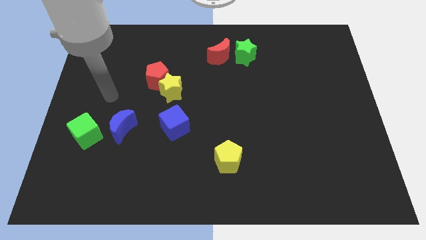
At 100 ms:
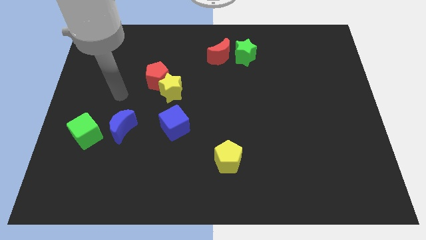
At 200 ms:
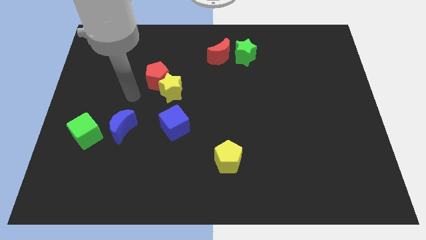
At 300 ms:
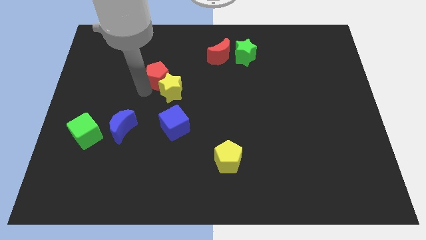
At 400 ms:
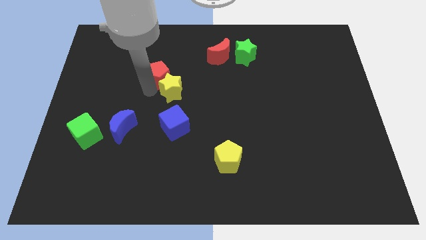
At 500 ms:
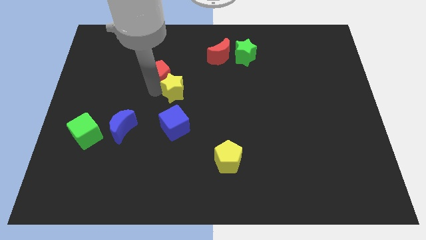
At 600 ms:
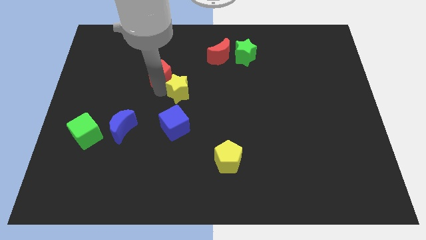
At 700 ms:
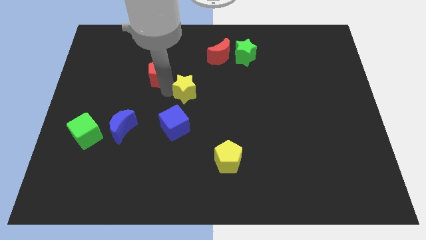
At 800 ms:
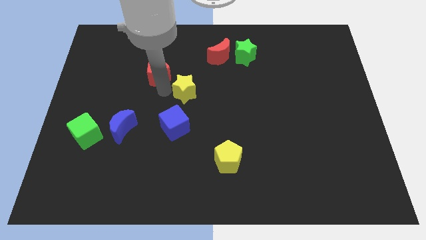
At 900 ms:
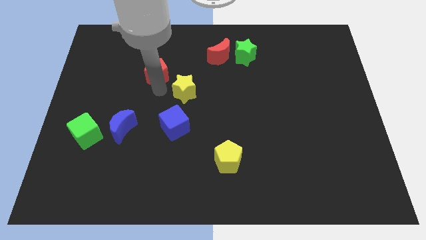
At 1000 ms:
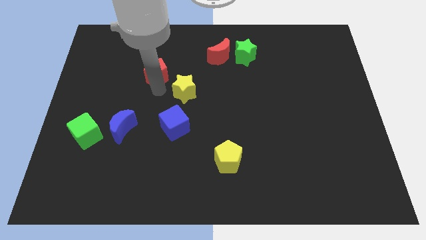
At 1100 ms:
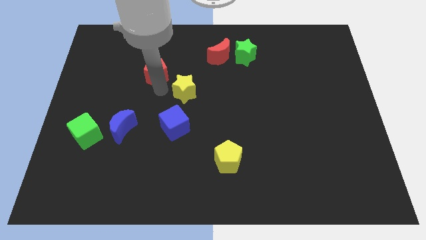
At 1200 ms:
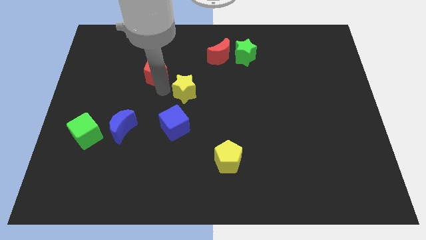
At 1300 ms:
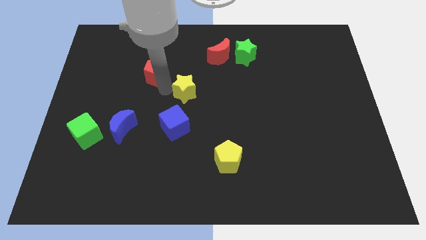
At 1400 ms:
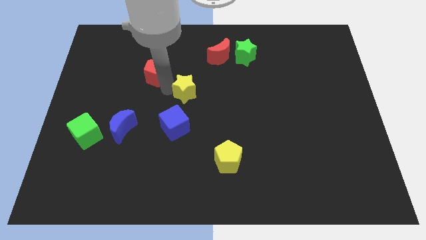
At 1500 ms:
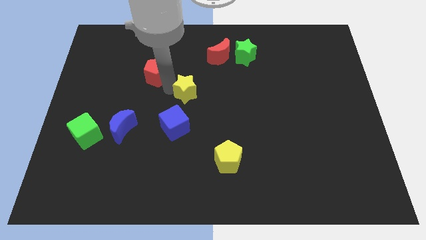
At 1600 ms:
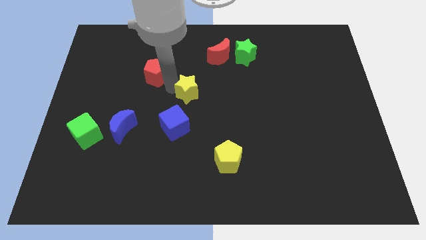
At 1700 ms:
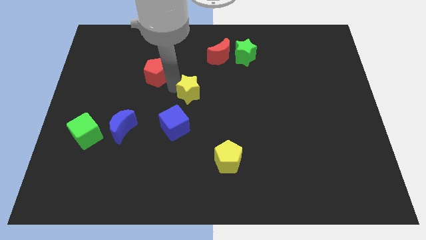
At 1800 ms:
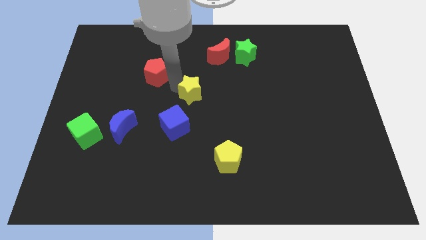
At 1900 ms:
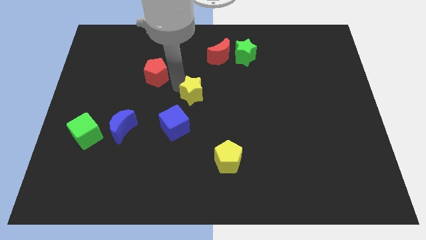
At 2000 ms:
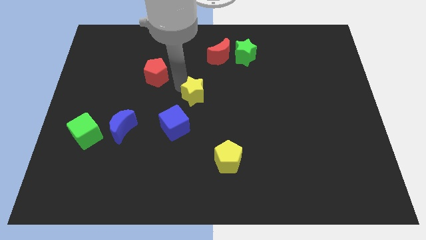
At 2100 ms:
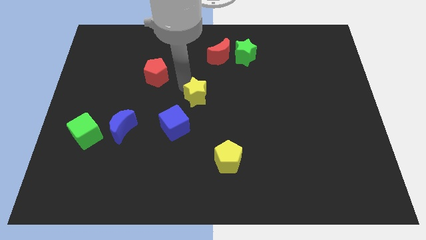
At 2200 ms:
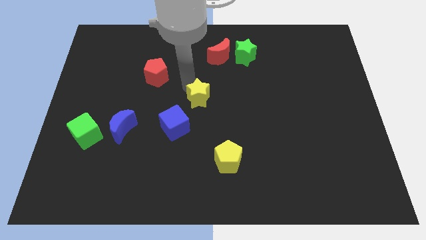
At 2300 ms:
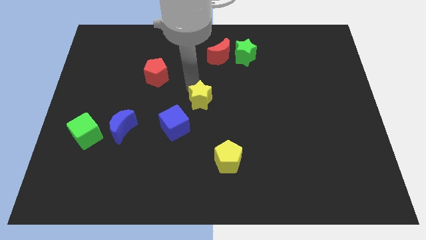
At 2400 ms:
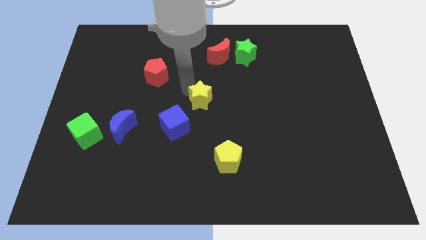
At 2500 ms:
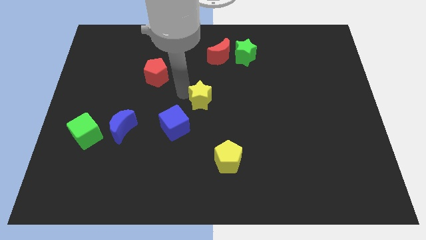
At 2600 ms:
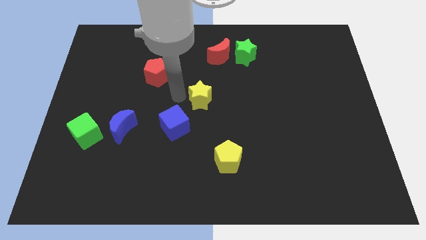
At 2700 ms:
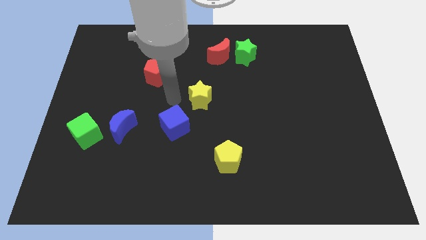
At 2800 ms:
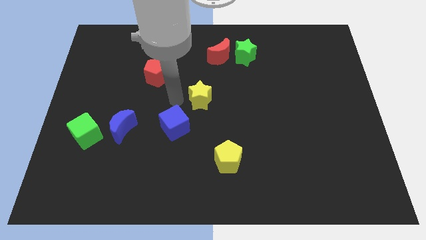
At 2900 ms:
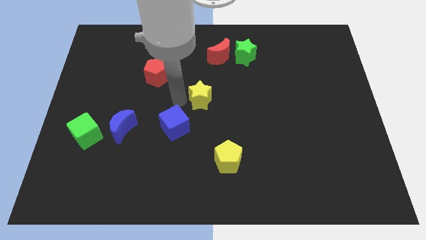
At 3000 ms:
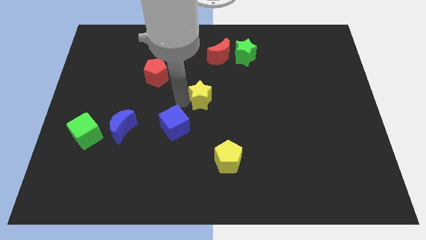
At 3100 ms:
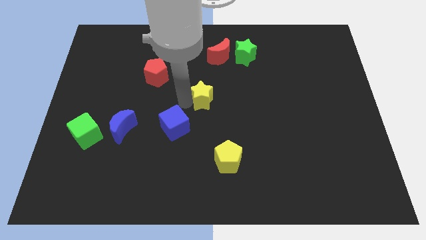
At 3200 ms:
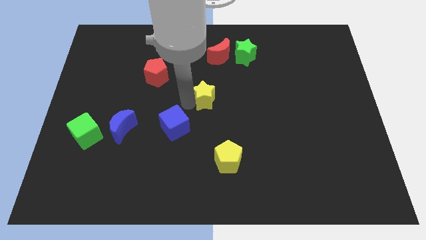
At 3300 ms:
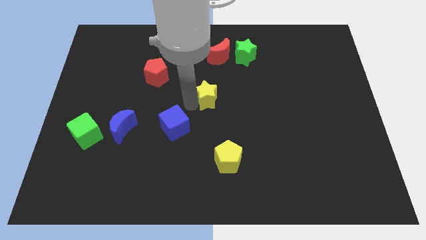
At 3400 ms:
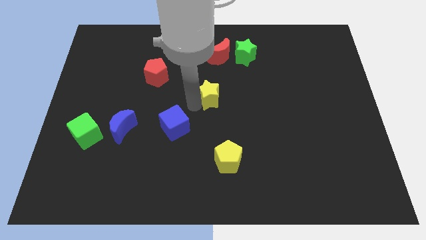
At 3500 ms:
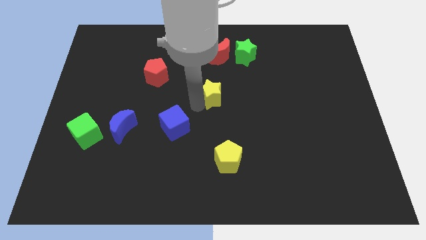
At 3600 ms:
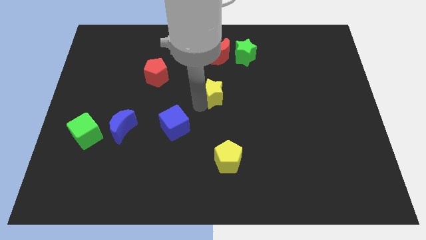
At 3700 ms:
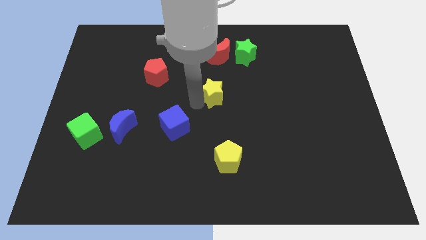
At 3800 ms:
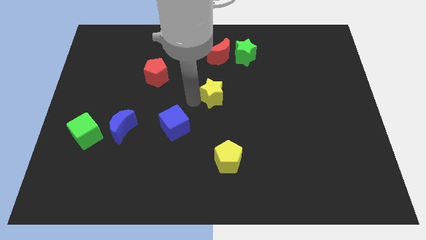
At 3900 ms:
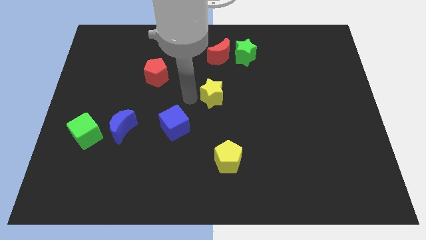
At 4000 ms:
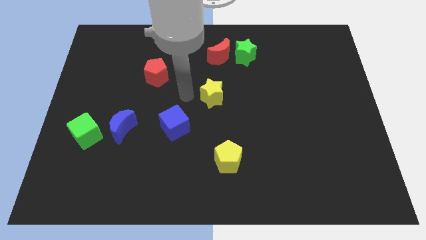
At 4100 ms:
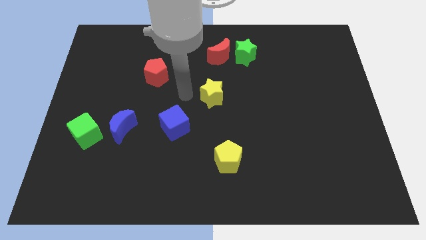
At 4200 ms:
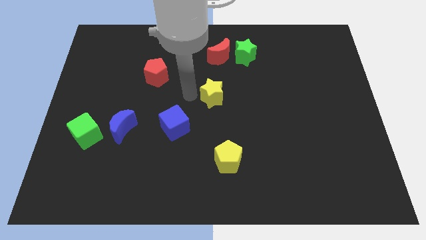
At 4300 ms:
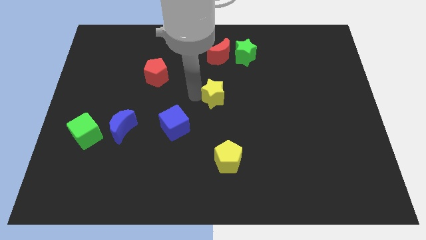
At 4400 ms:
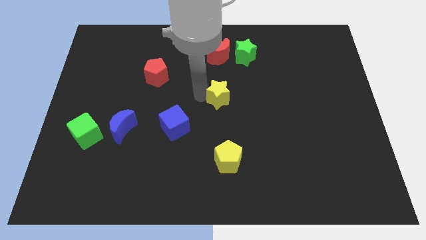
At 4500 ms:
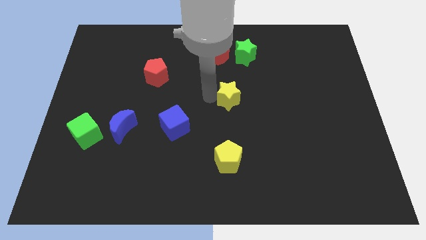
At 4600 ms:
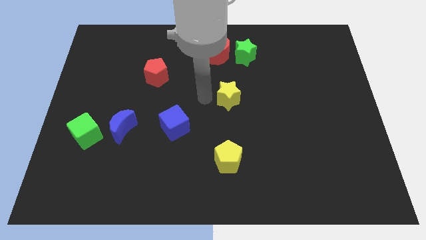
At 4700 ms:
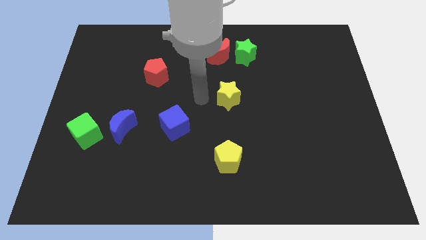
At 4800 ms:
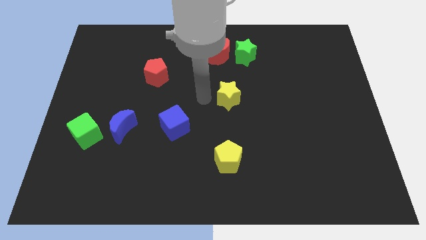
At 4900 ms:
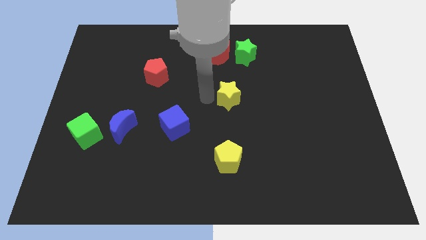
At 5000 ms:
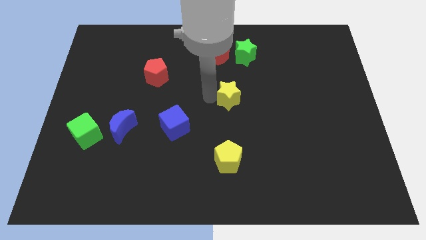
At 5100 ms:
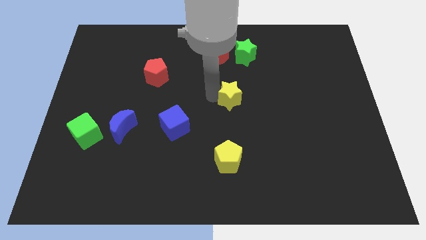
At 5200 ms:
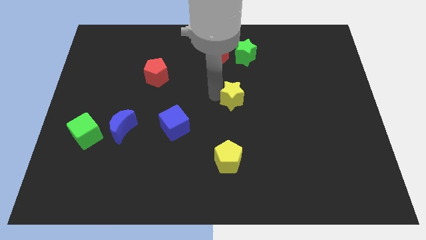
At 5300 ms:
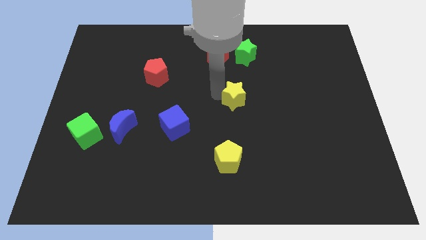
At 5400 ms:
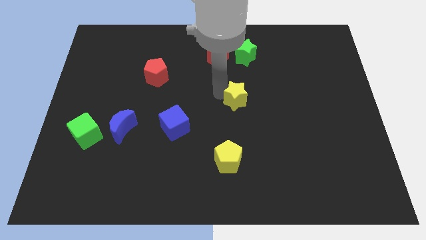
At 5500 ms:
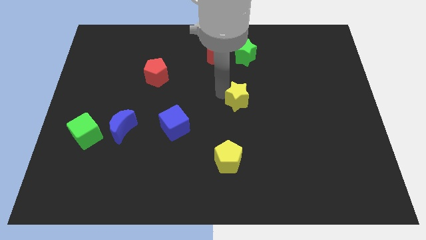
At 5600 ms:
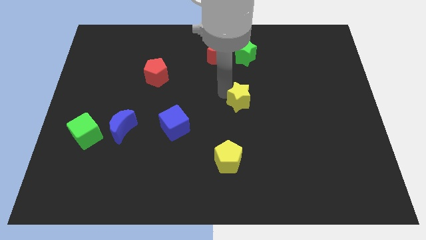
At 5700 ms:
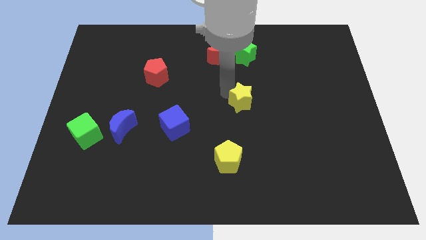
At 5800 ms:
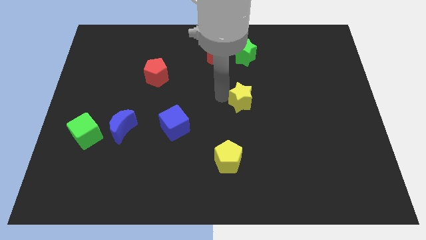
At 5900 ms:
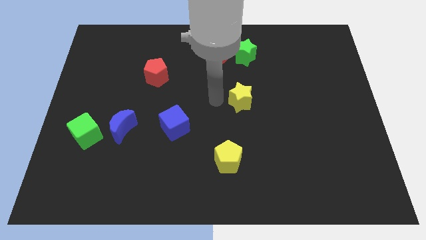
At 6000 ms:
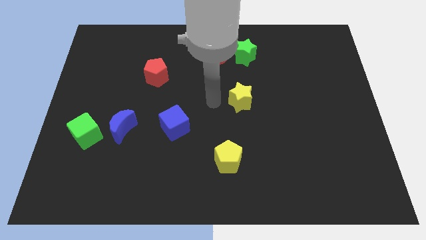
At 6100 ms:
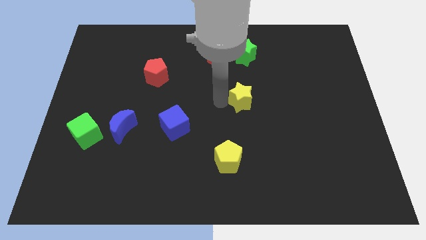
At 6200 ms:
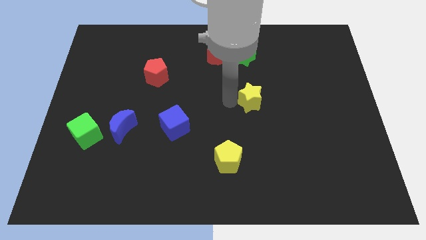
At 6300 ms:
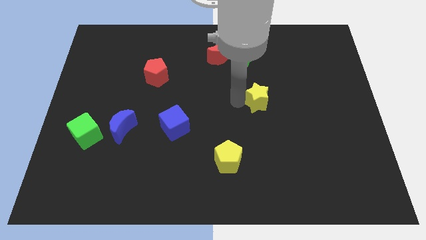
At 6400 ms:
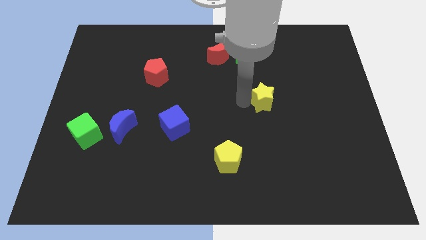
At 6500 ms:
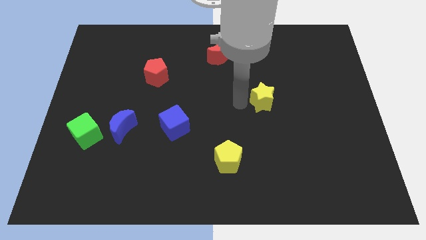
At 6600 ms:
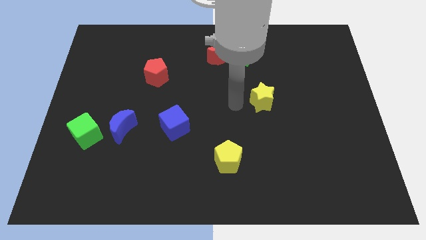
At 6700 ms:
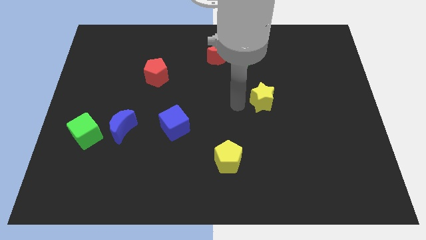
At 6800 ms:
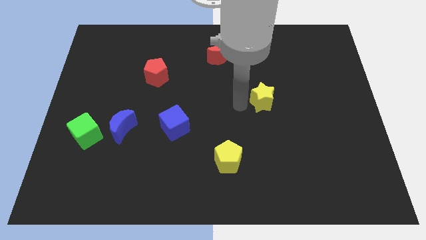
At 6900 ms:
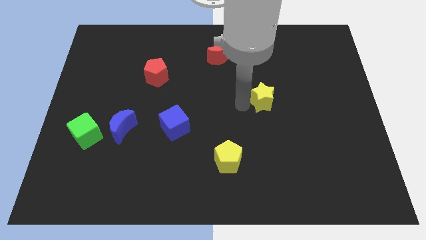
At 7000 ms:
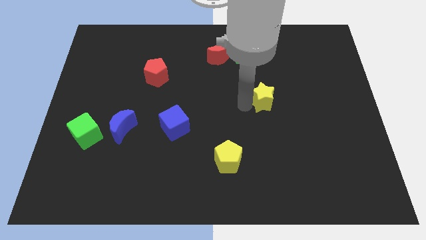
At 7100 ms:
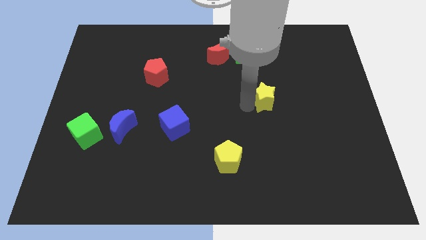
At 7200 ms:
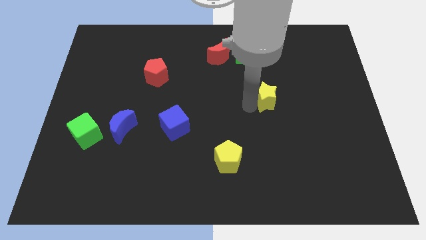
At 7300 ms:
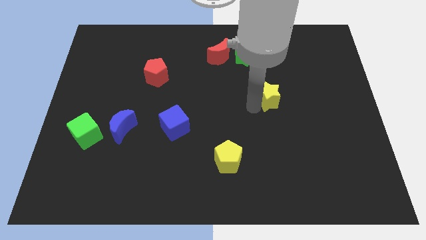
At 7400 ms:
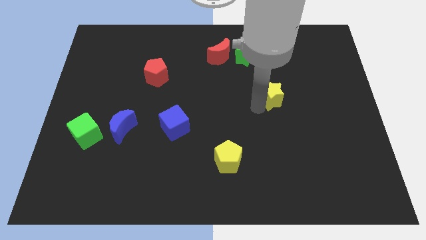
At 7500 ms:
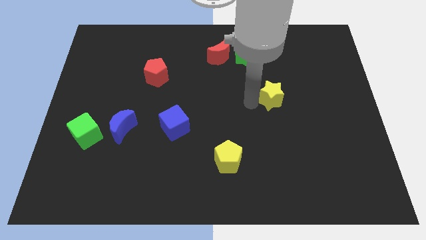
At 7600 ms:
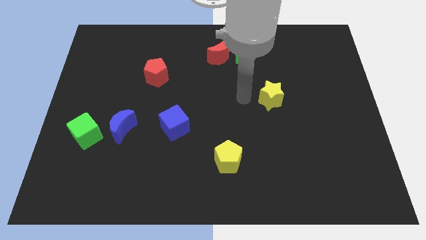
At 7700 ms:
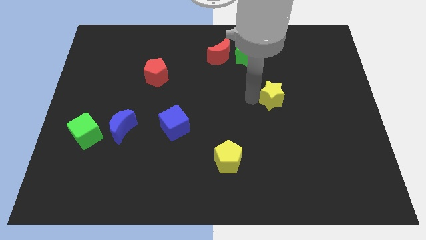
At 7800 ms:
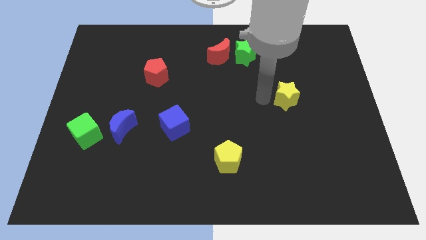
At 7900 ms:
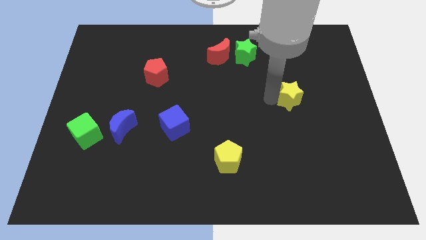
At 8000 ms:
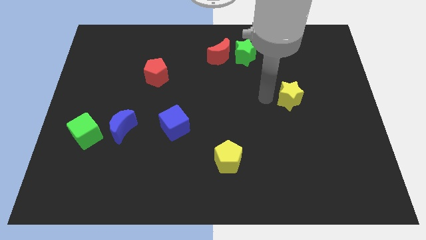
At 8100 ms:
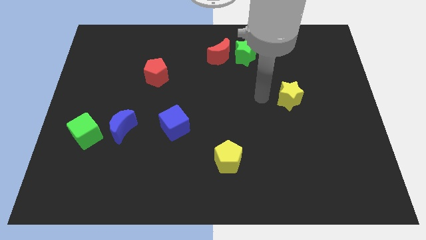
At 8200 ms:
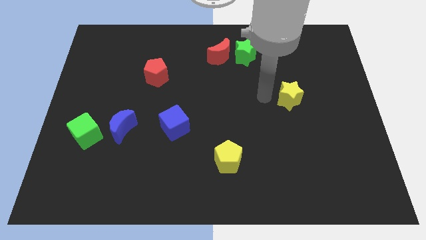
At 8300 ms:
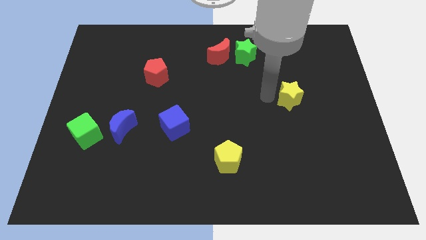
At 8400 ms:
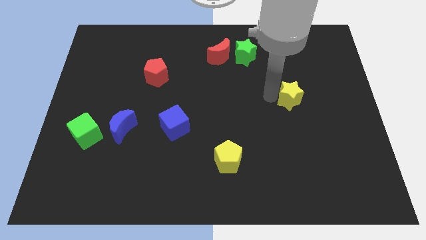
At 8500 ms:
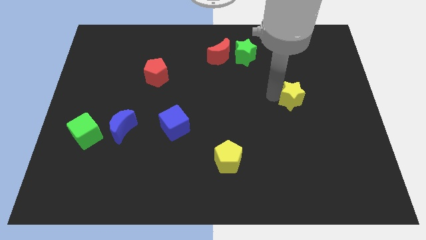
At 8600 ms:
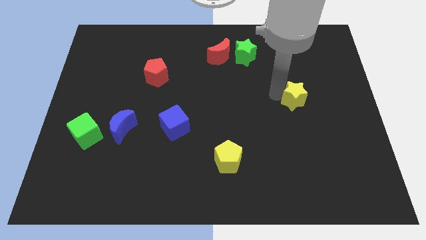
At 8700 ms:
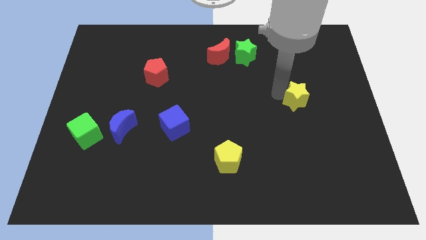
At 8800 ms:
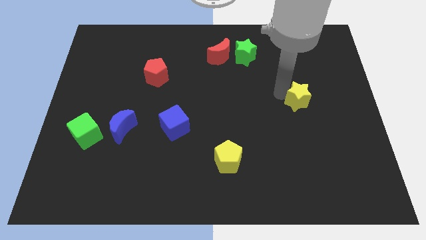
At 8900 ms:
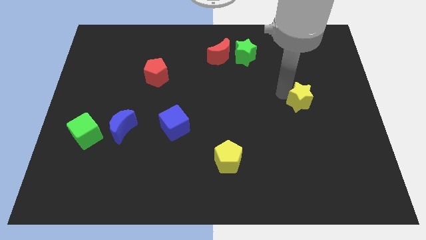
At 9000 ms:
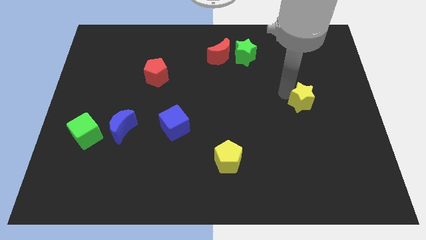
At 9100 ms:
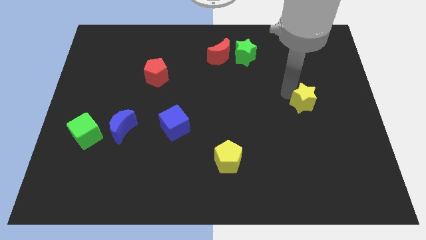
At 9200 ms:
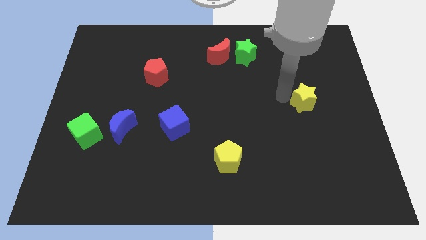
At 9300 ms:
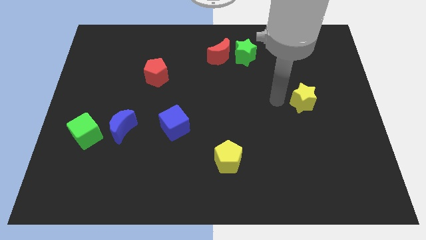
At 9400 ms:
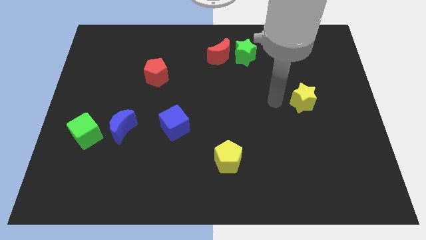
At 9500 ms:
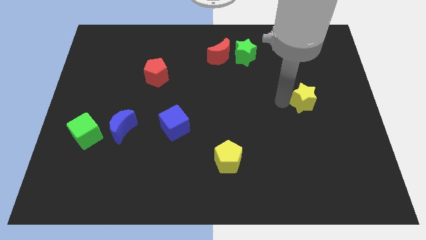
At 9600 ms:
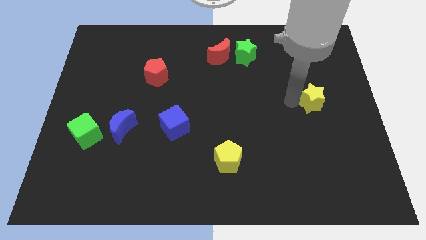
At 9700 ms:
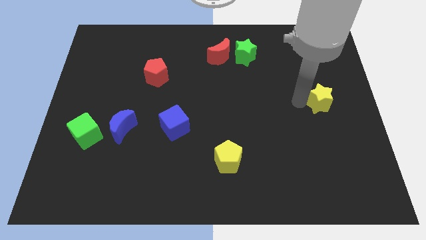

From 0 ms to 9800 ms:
push the yellow star to the center right
